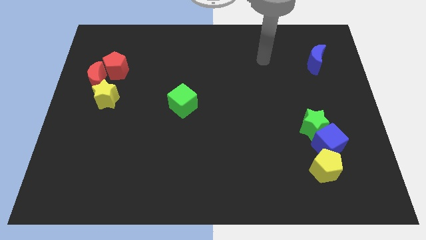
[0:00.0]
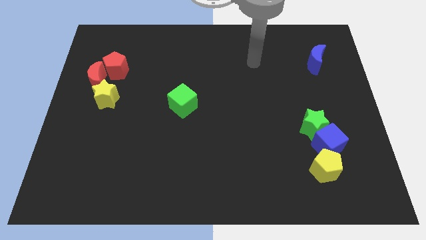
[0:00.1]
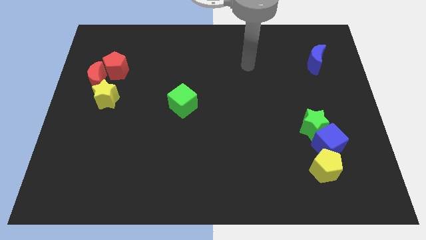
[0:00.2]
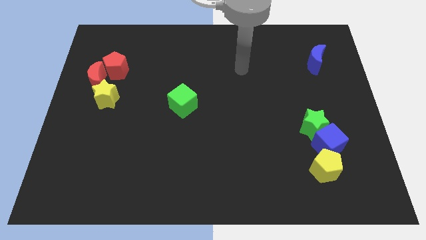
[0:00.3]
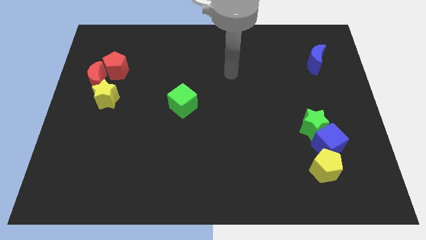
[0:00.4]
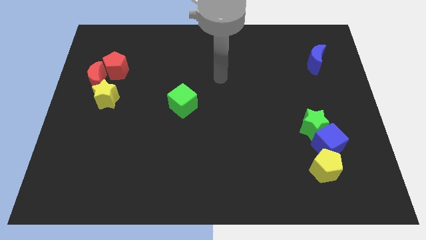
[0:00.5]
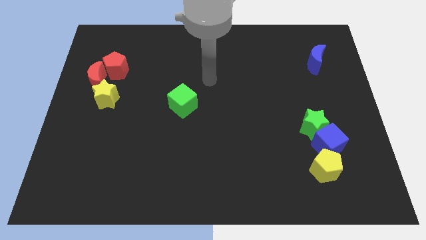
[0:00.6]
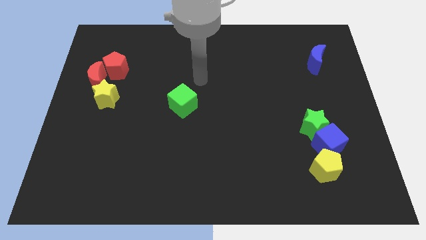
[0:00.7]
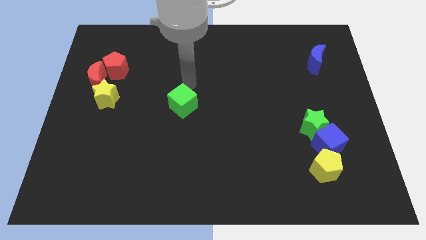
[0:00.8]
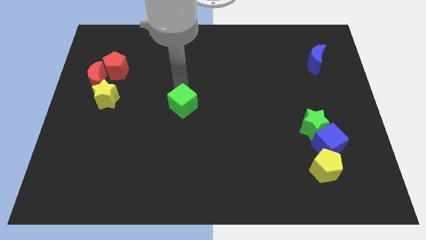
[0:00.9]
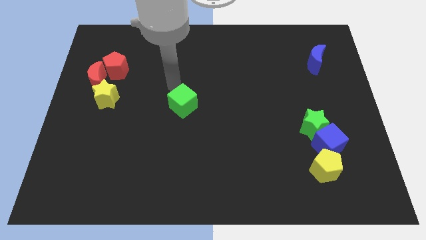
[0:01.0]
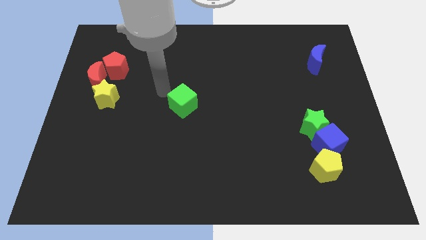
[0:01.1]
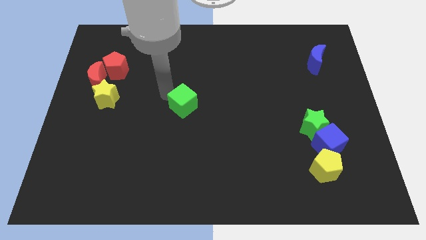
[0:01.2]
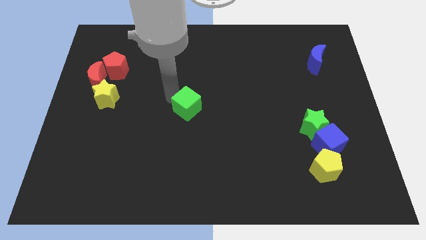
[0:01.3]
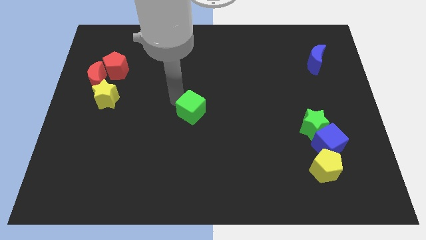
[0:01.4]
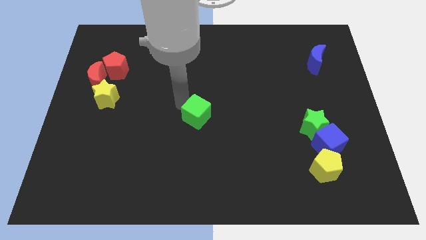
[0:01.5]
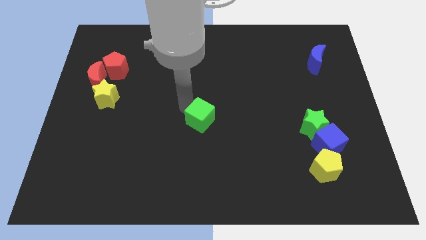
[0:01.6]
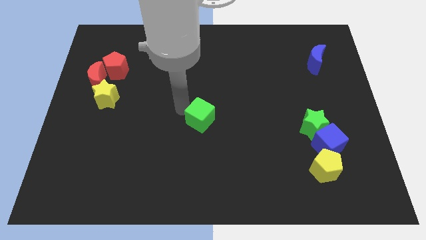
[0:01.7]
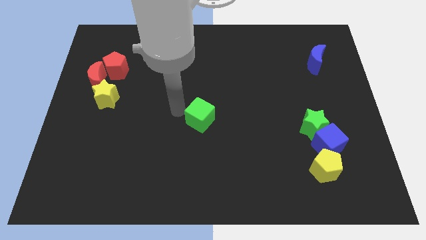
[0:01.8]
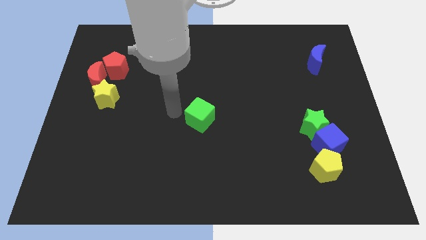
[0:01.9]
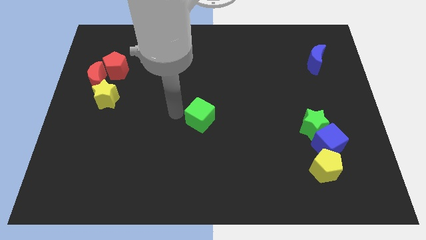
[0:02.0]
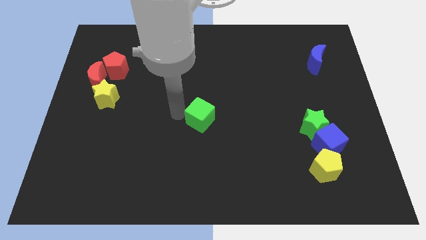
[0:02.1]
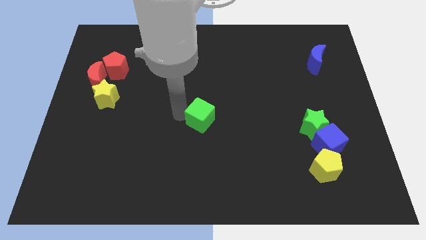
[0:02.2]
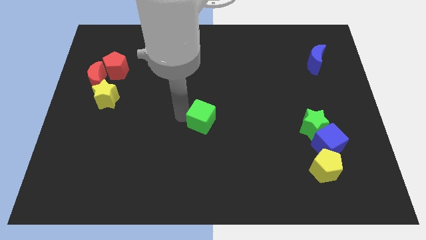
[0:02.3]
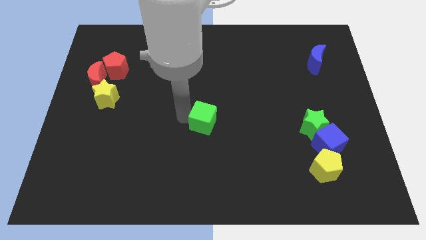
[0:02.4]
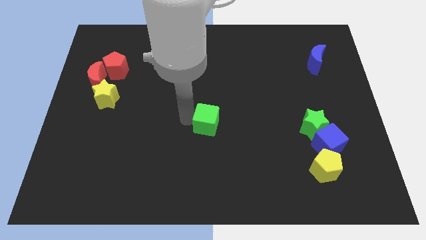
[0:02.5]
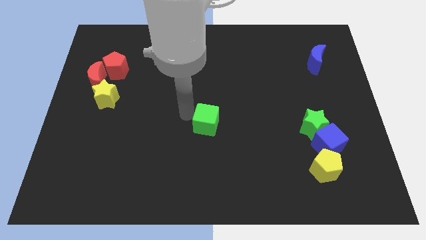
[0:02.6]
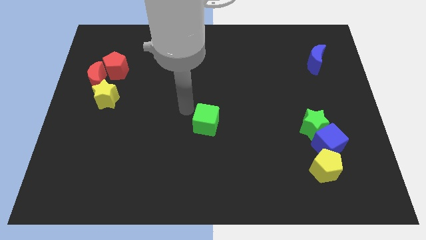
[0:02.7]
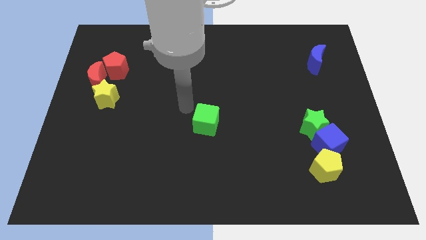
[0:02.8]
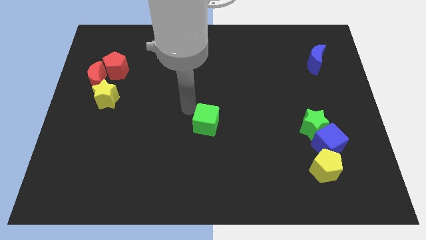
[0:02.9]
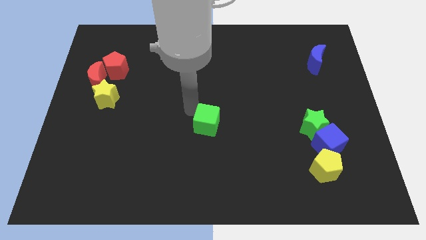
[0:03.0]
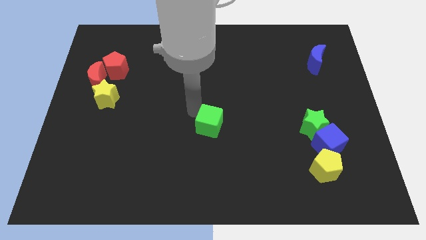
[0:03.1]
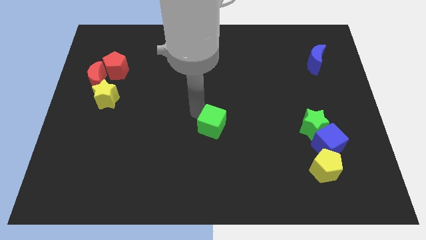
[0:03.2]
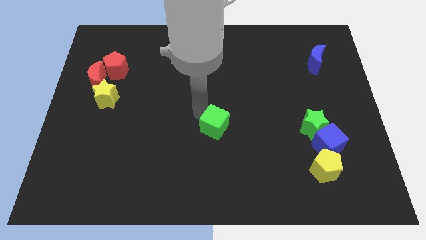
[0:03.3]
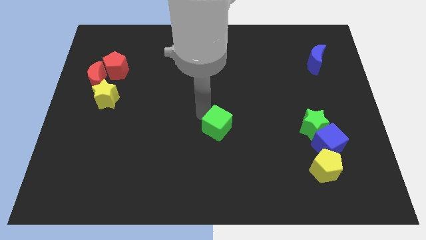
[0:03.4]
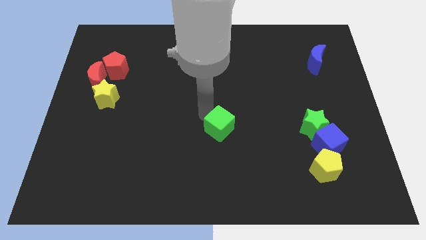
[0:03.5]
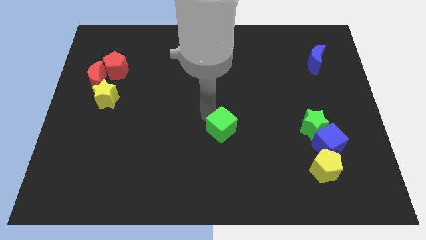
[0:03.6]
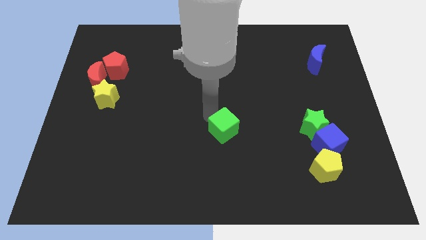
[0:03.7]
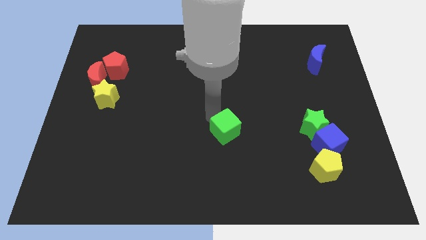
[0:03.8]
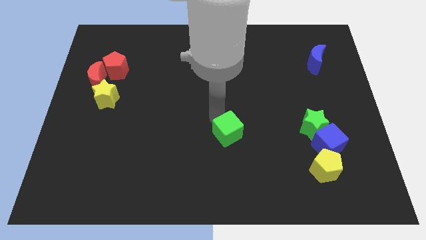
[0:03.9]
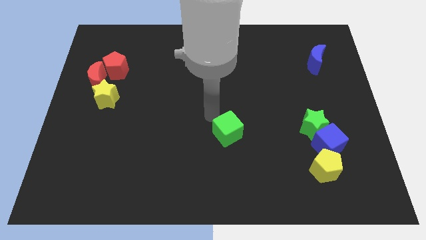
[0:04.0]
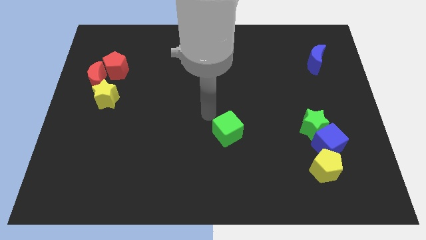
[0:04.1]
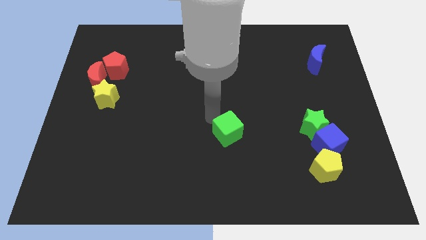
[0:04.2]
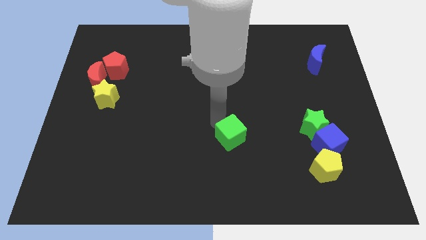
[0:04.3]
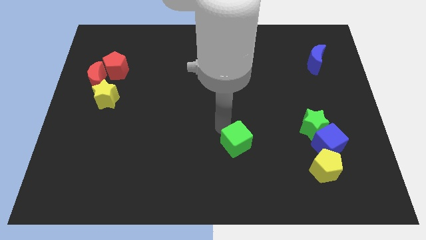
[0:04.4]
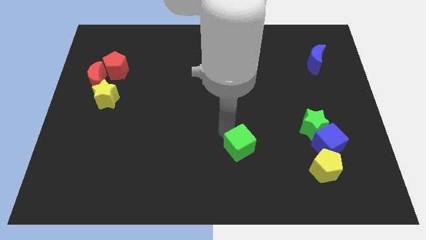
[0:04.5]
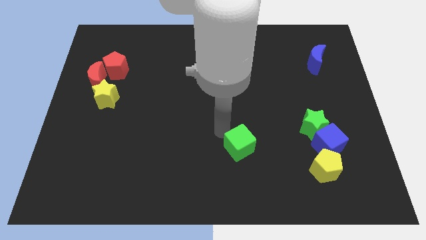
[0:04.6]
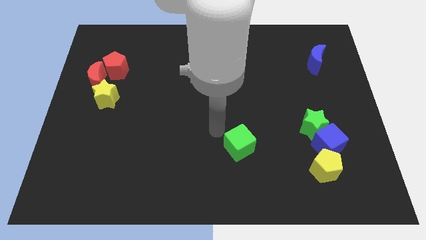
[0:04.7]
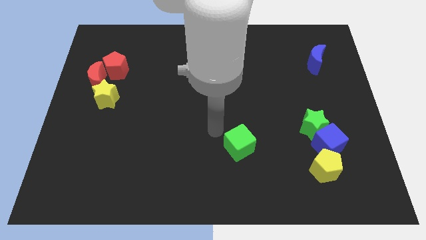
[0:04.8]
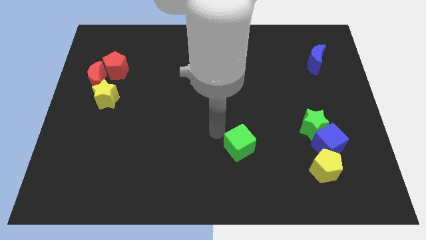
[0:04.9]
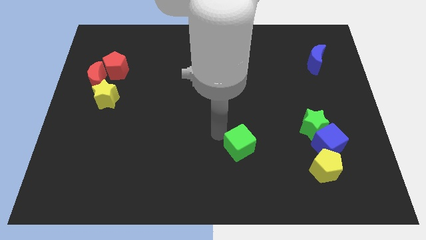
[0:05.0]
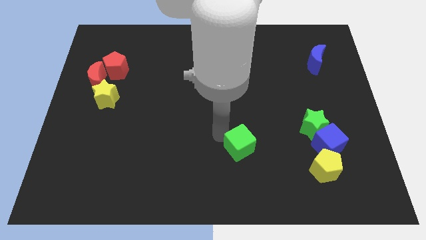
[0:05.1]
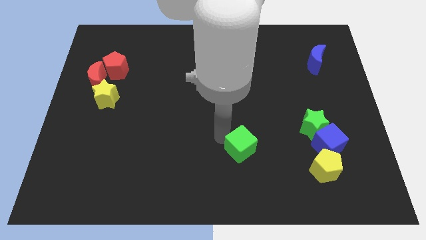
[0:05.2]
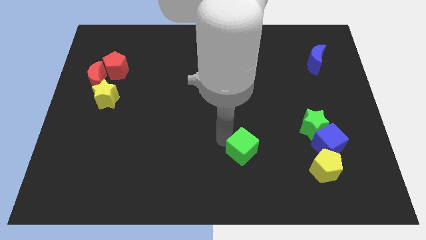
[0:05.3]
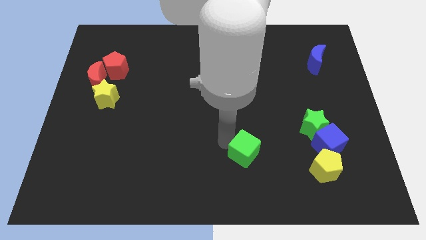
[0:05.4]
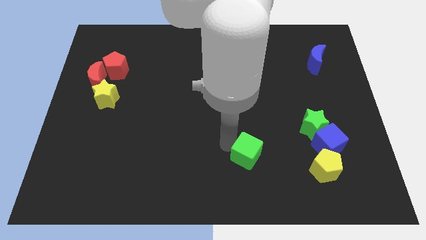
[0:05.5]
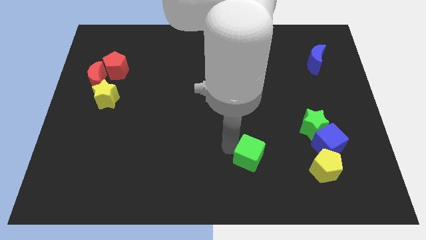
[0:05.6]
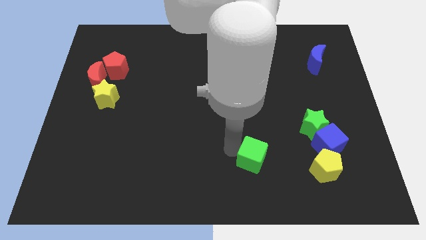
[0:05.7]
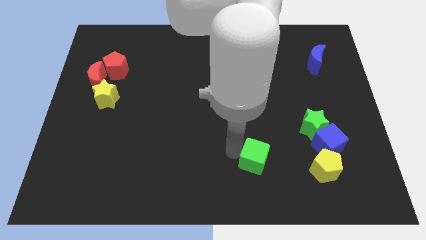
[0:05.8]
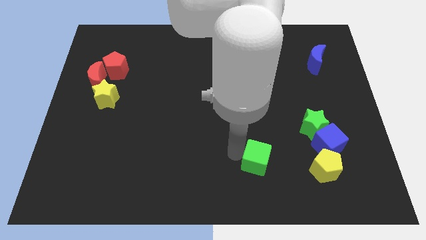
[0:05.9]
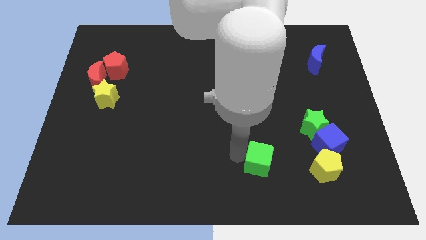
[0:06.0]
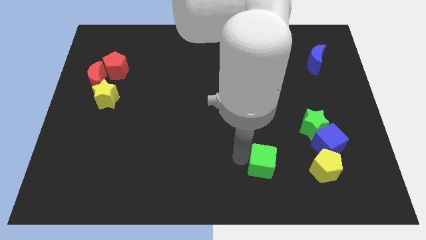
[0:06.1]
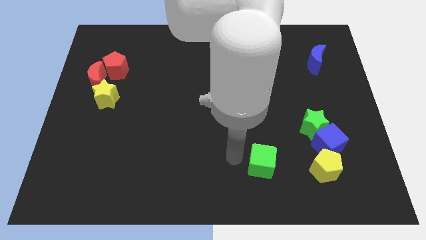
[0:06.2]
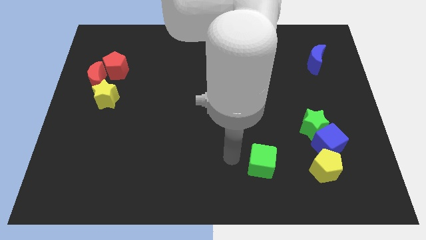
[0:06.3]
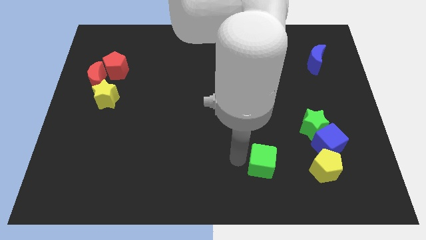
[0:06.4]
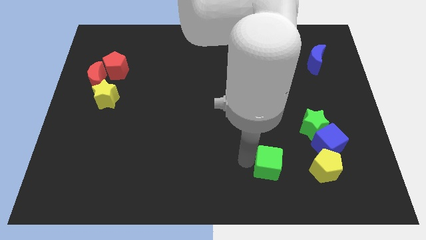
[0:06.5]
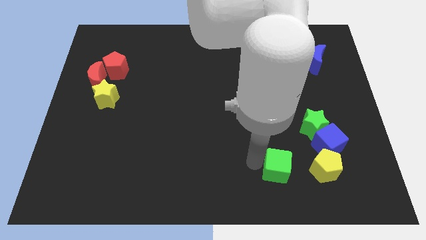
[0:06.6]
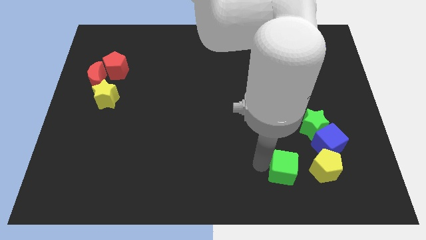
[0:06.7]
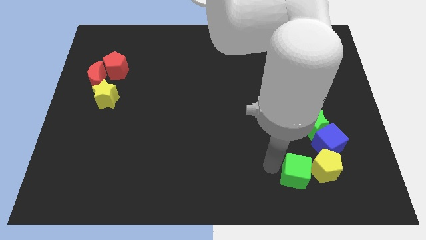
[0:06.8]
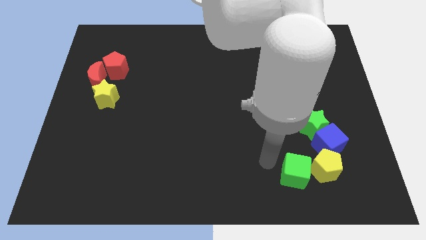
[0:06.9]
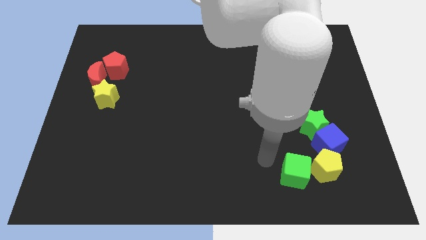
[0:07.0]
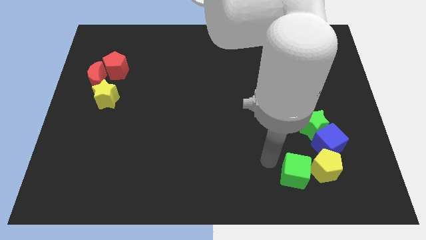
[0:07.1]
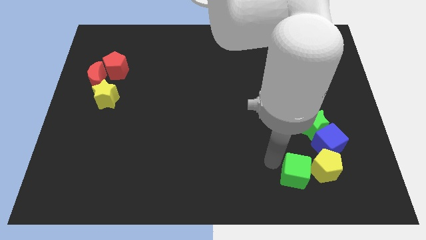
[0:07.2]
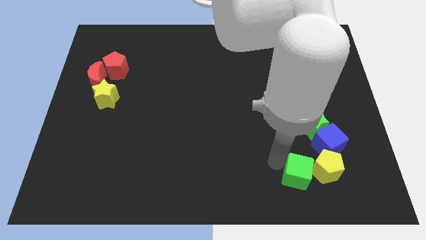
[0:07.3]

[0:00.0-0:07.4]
slide the green cube to the bottom side of the green star
